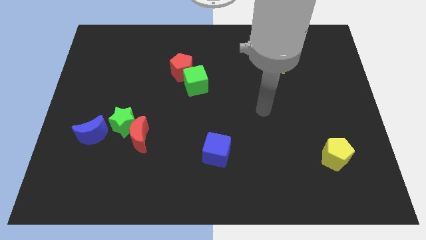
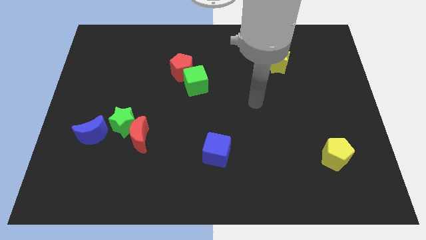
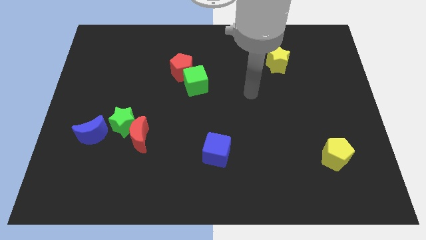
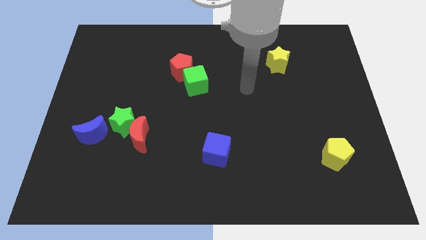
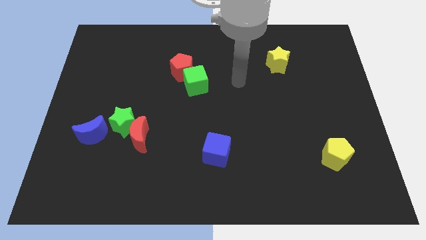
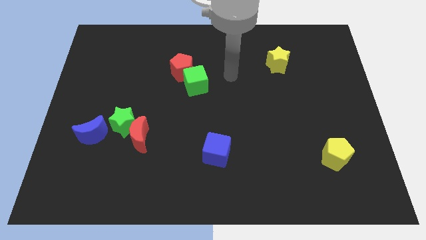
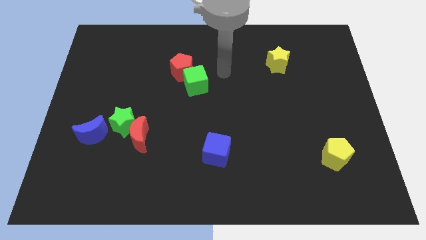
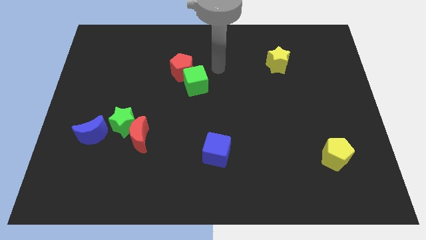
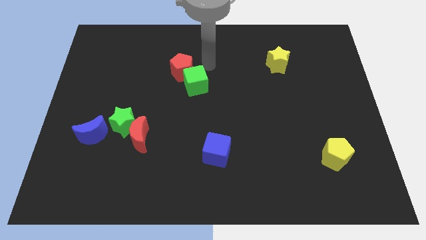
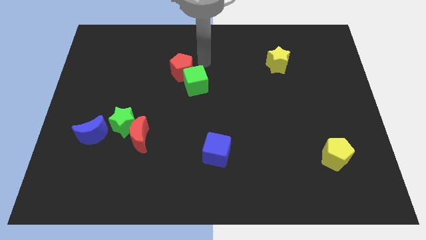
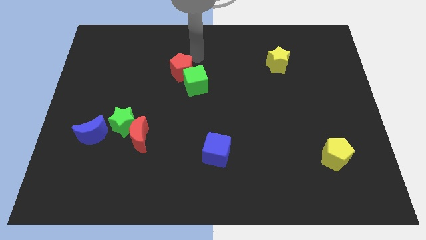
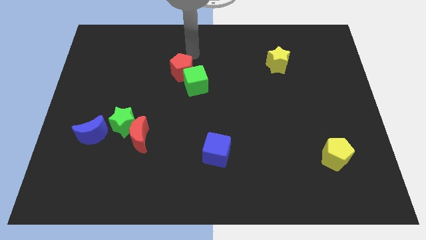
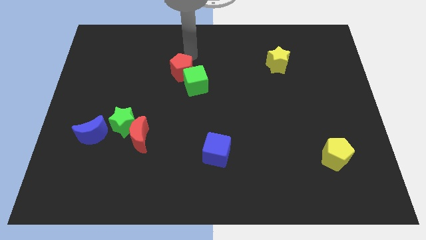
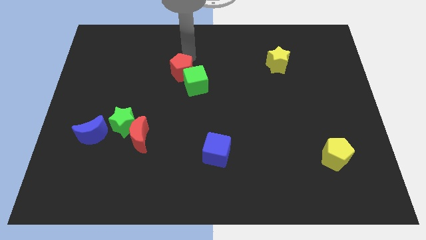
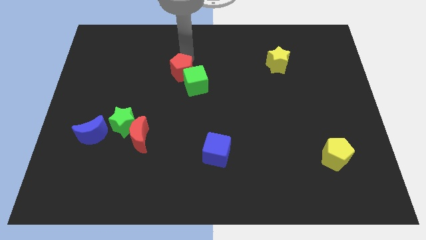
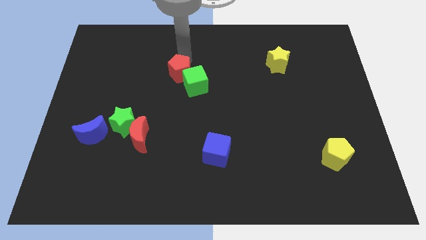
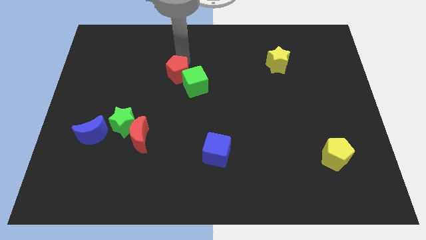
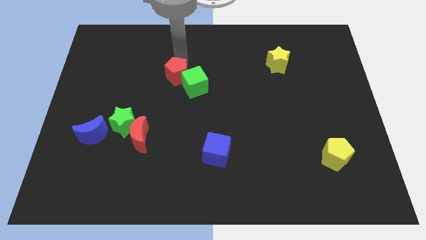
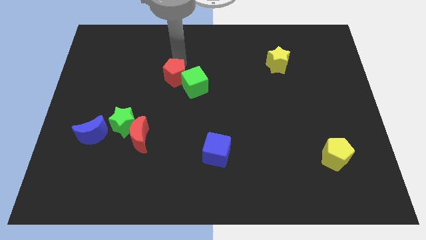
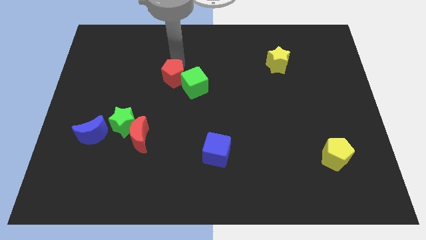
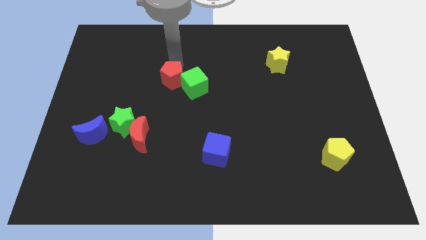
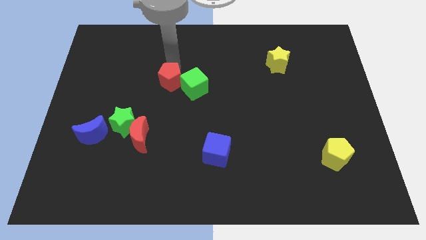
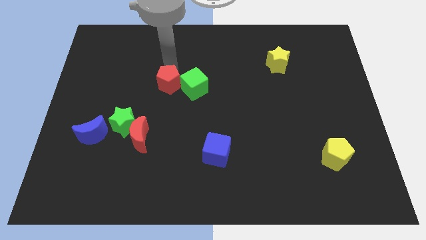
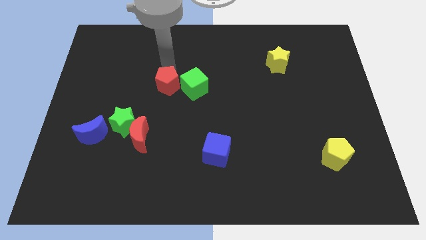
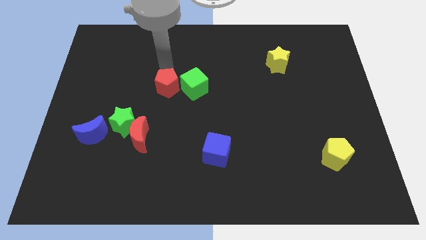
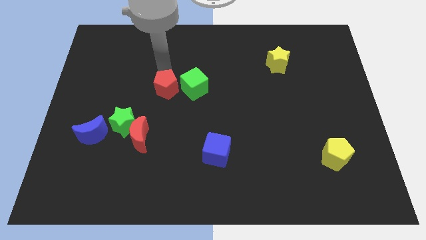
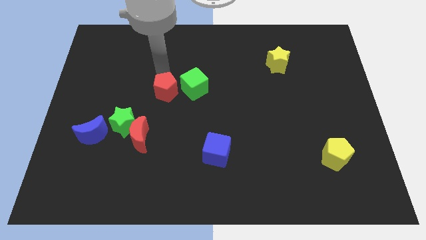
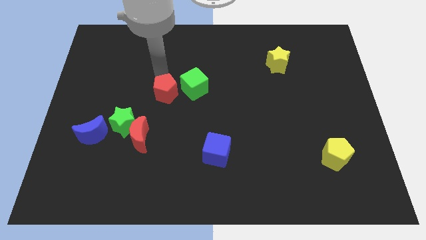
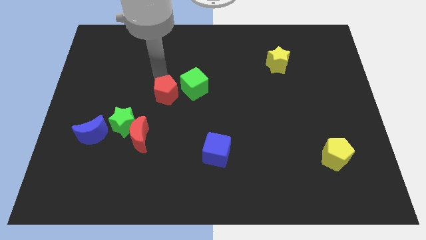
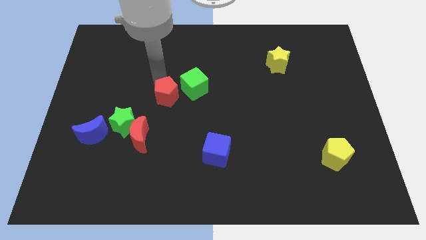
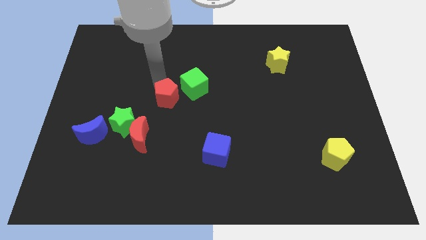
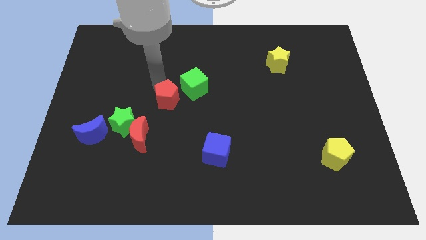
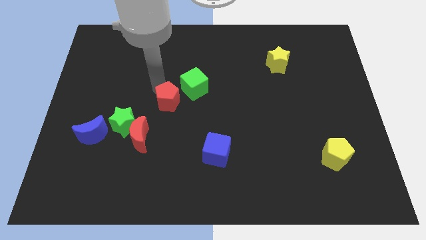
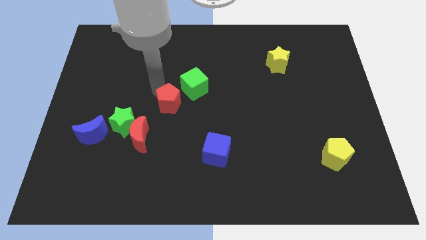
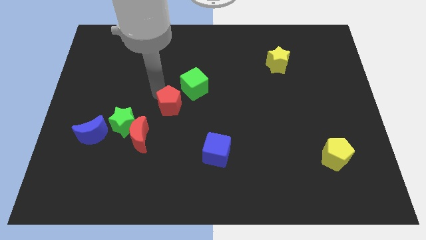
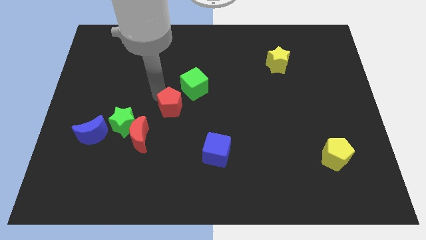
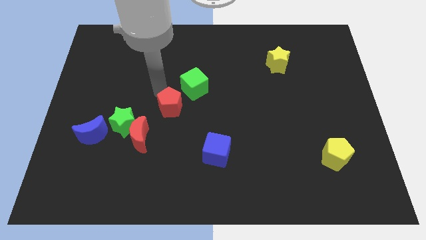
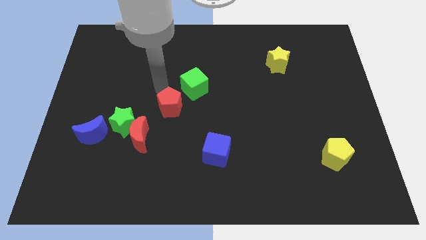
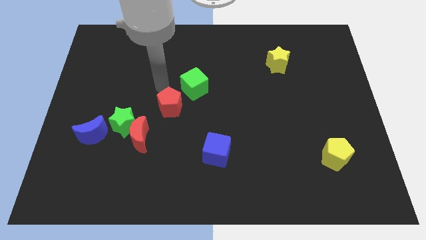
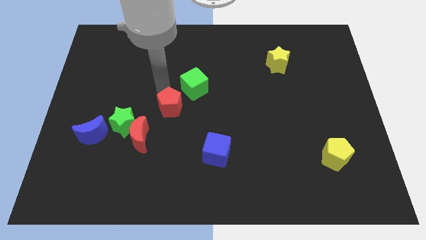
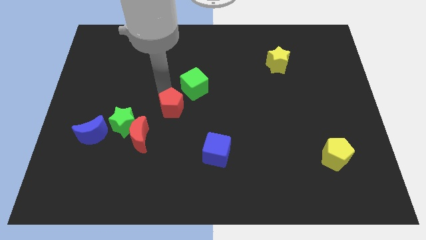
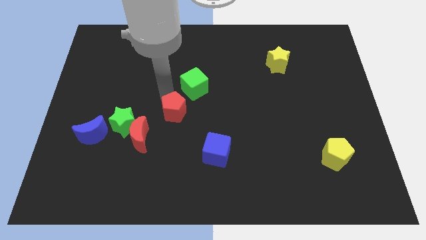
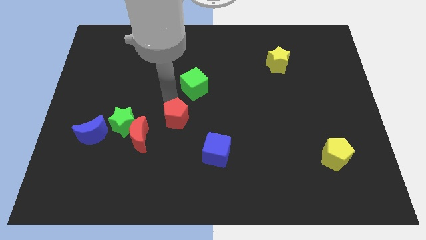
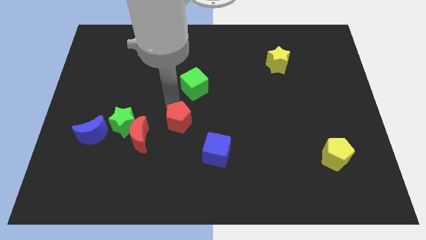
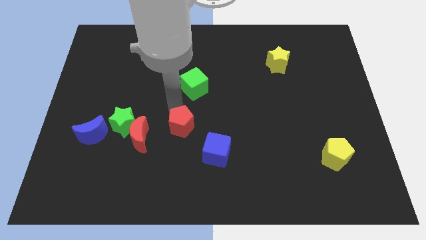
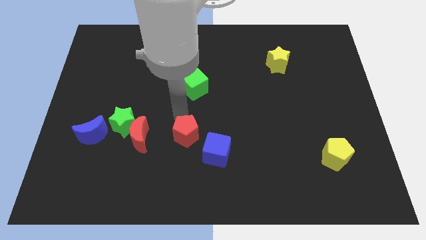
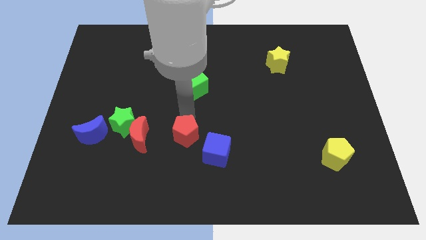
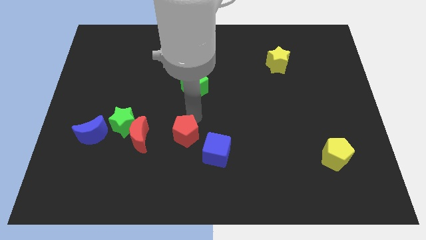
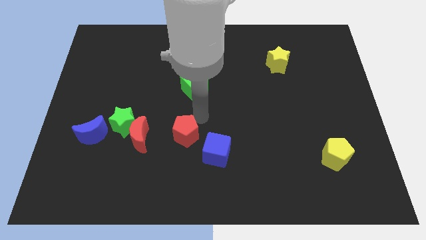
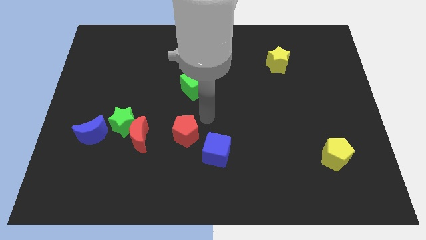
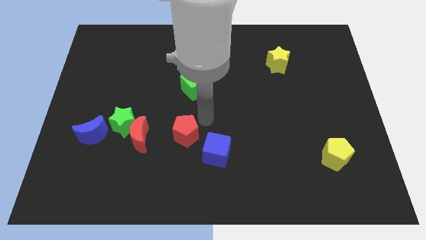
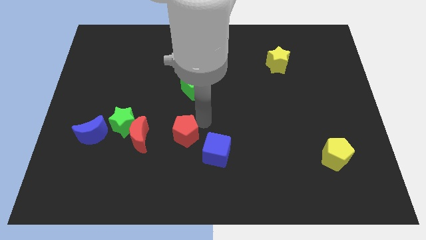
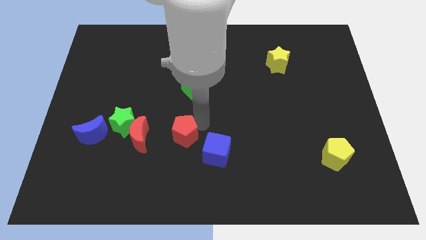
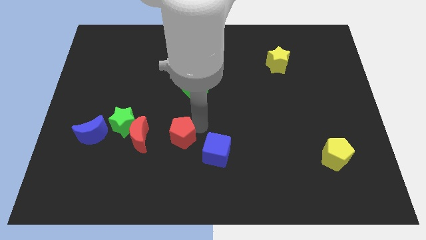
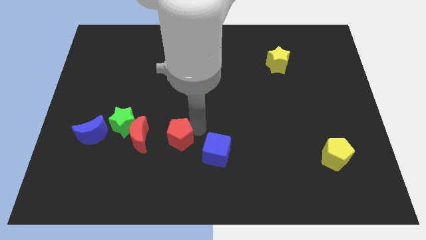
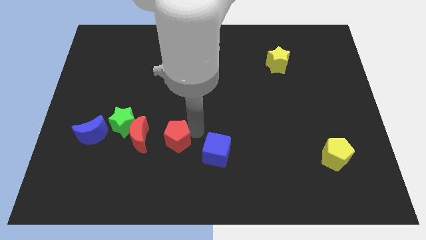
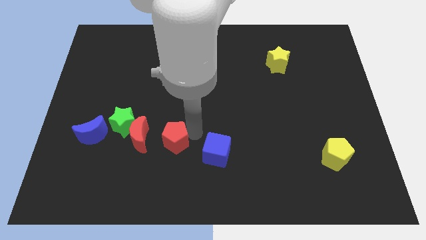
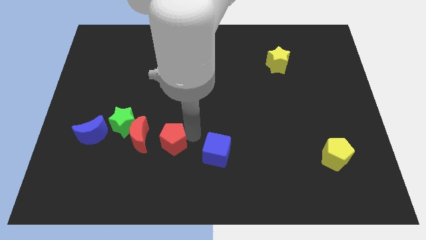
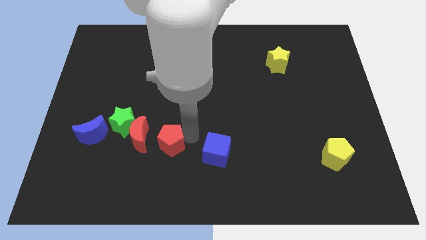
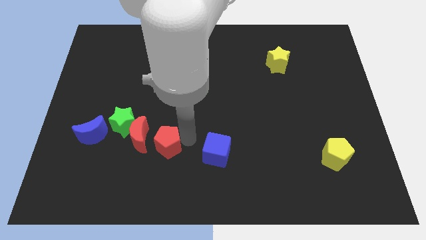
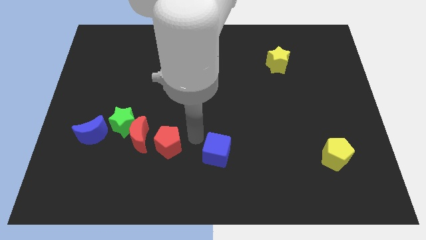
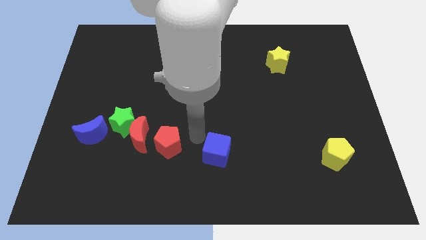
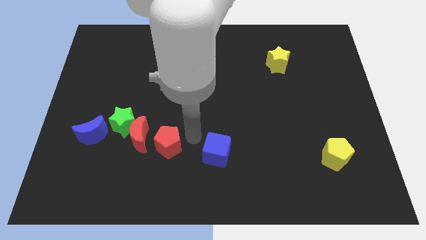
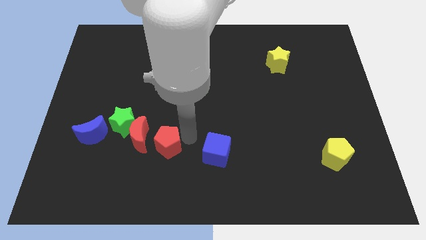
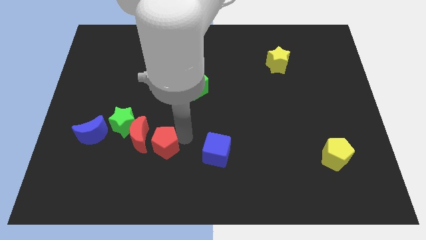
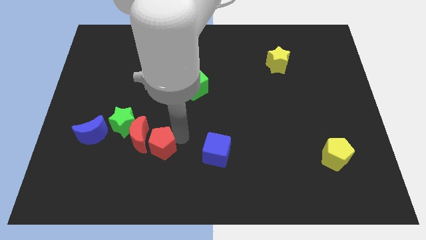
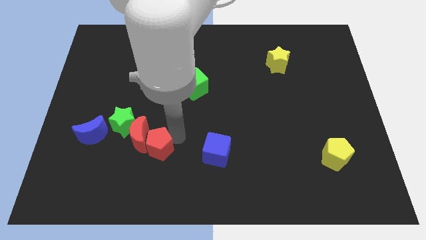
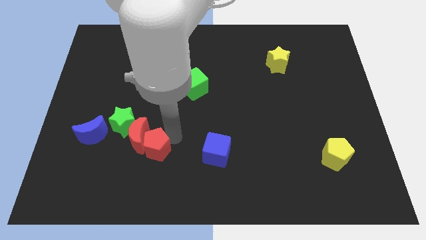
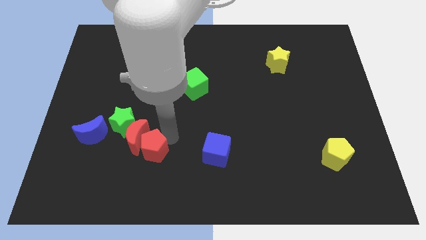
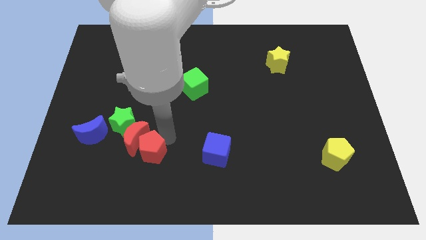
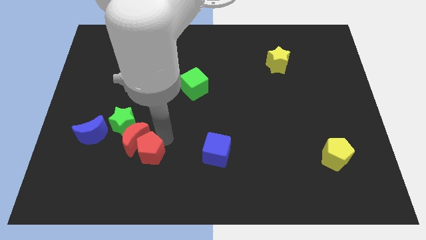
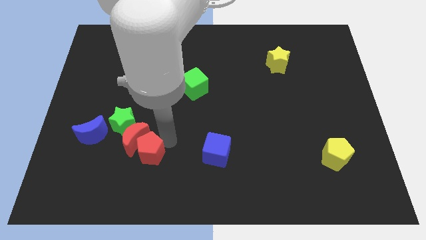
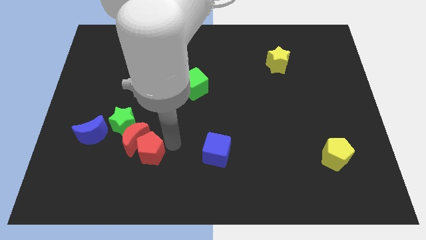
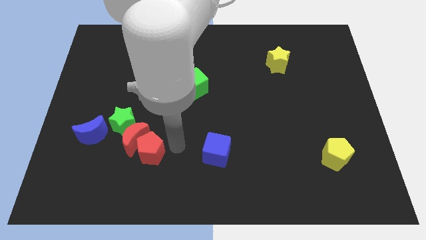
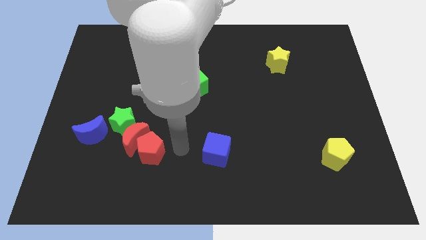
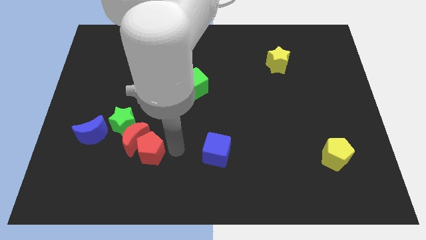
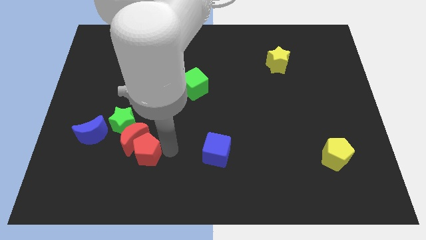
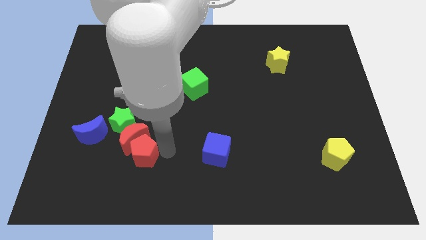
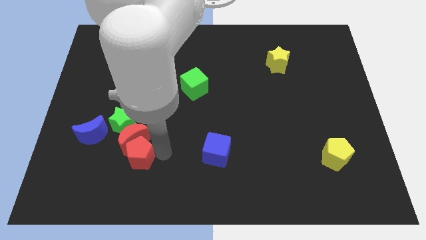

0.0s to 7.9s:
put the red pentagon diagonally down and to the left of the red moon
